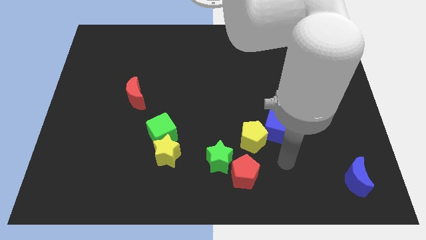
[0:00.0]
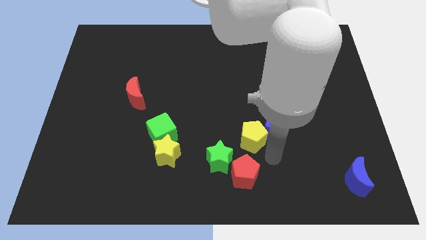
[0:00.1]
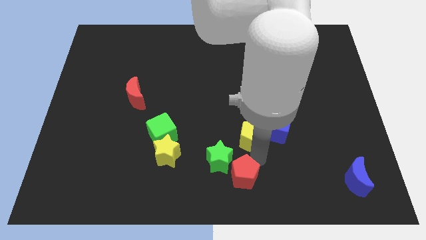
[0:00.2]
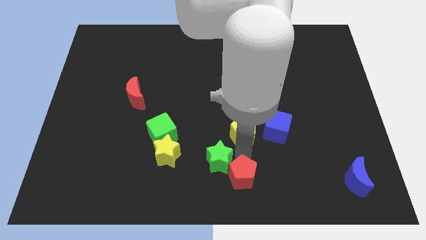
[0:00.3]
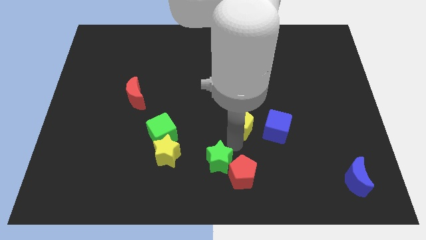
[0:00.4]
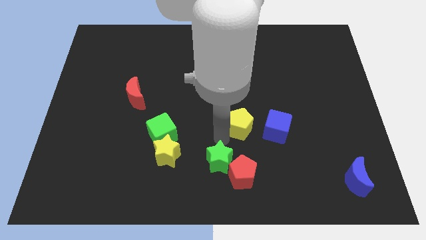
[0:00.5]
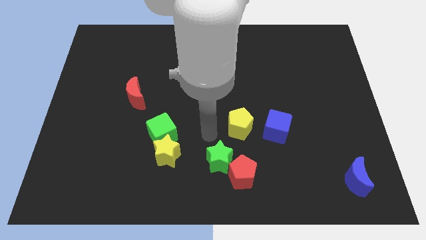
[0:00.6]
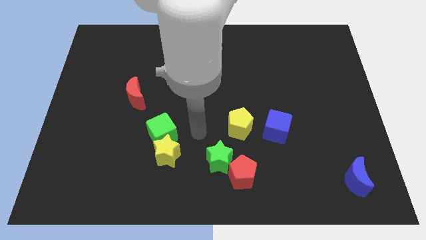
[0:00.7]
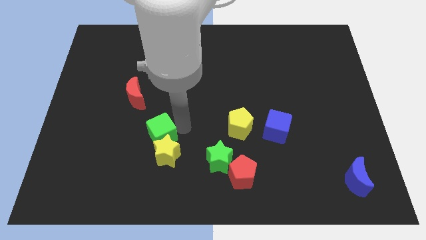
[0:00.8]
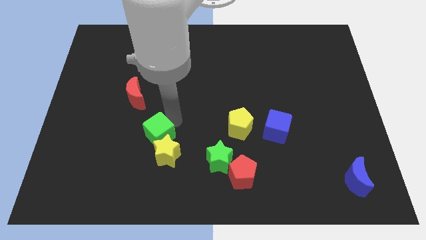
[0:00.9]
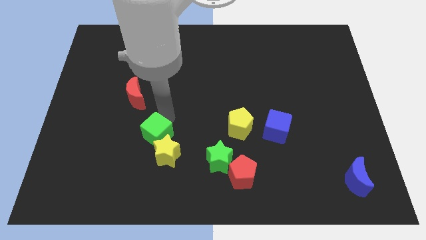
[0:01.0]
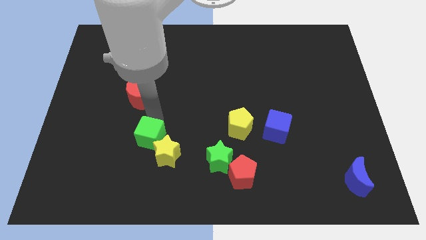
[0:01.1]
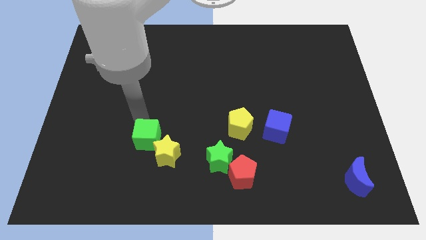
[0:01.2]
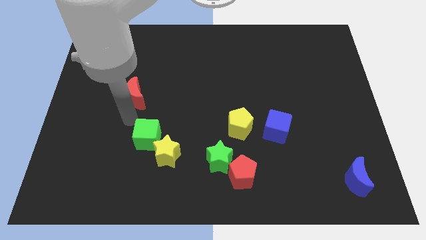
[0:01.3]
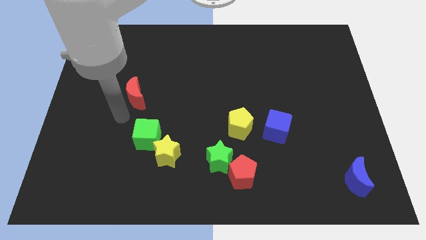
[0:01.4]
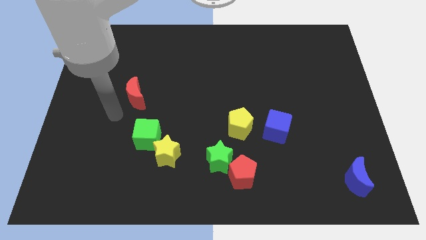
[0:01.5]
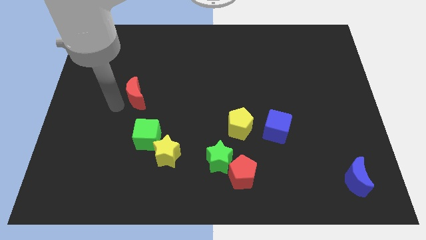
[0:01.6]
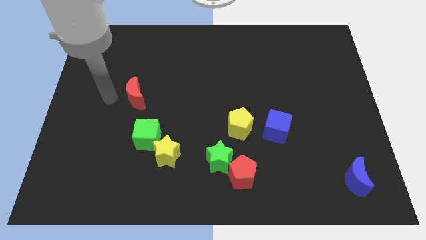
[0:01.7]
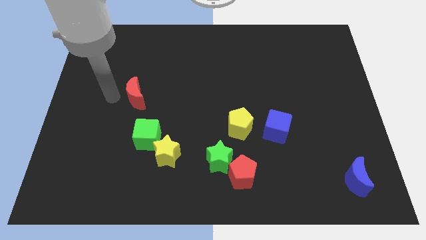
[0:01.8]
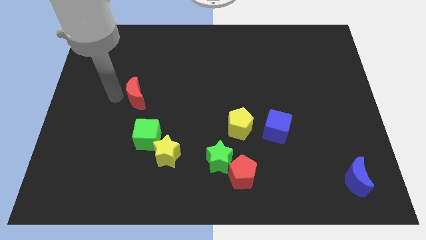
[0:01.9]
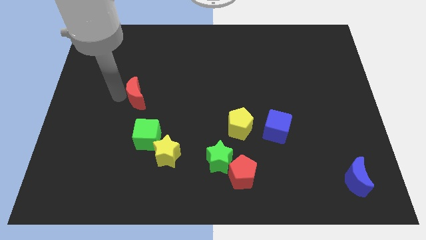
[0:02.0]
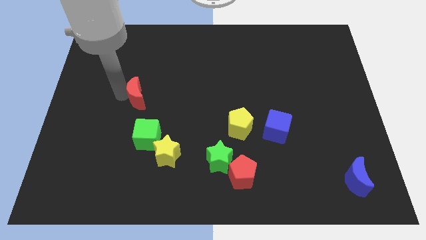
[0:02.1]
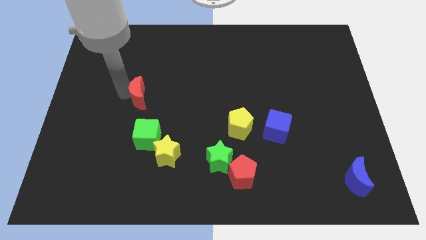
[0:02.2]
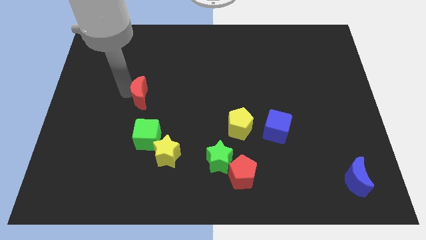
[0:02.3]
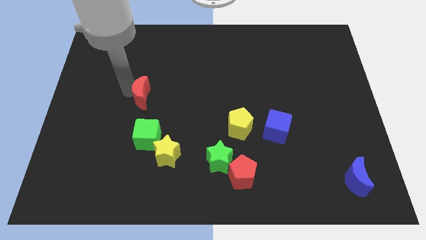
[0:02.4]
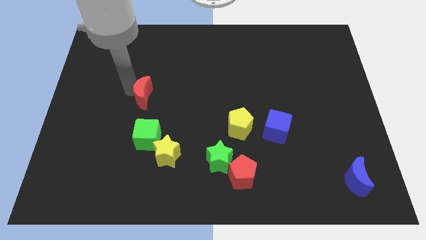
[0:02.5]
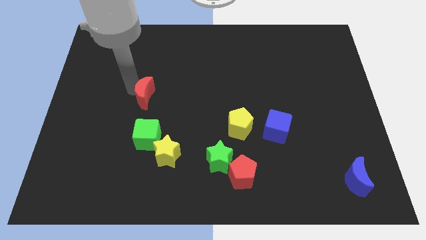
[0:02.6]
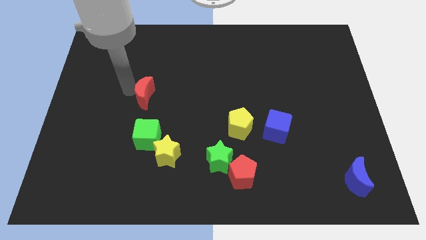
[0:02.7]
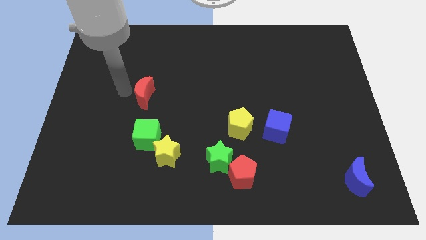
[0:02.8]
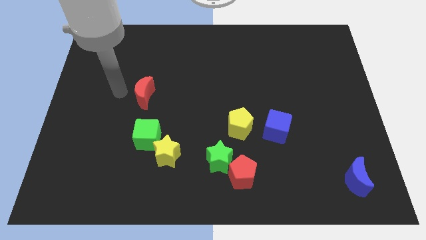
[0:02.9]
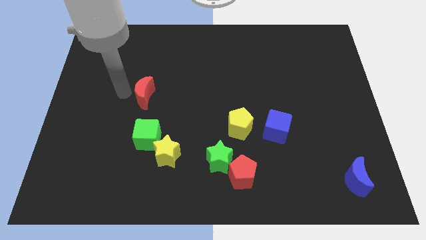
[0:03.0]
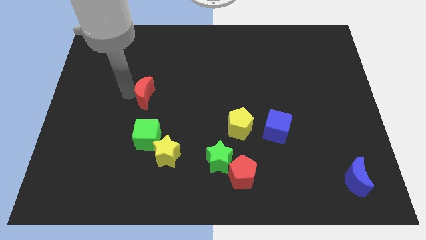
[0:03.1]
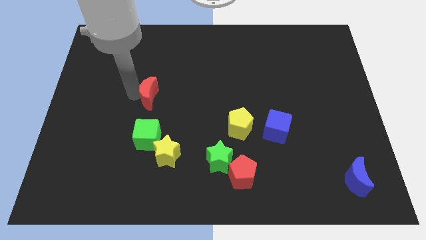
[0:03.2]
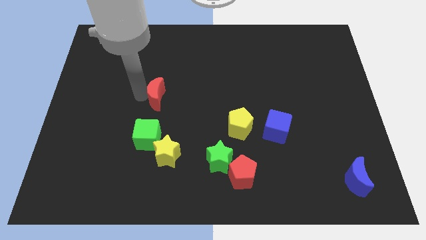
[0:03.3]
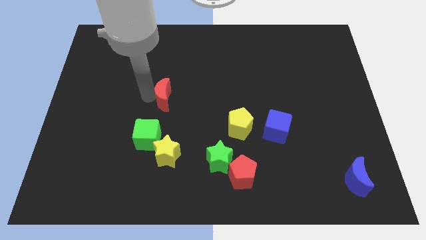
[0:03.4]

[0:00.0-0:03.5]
move the red moon right a little bit

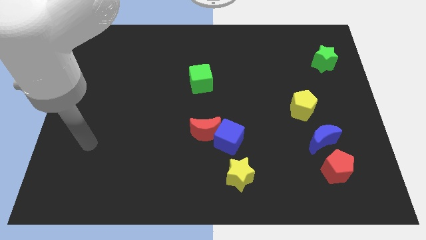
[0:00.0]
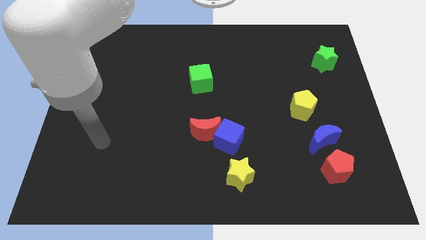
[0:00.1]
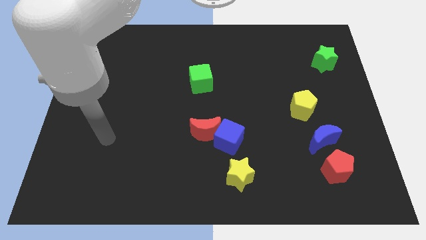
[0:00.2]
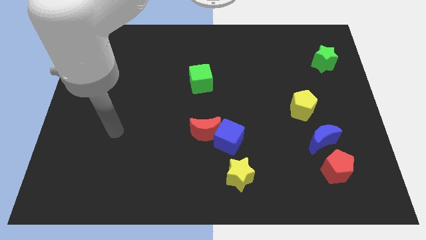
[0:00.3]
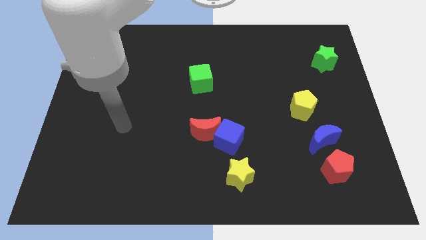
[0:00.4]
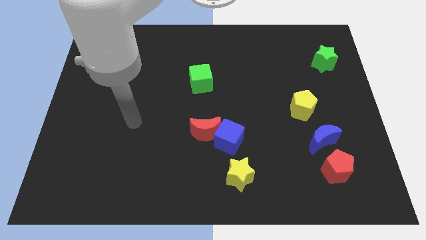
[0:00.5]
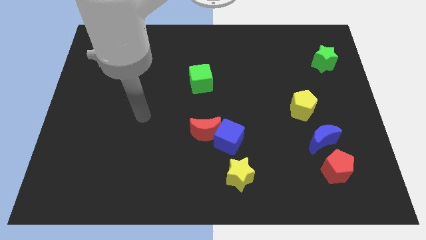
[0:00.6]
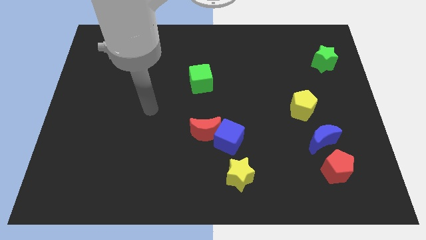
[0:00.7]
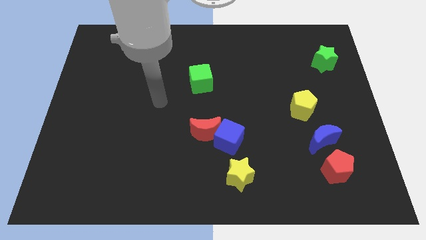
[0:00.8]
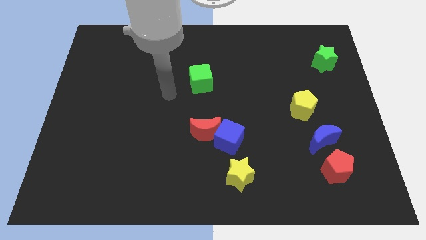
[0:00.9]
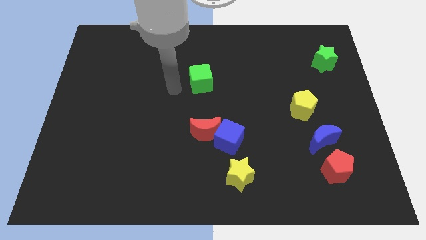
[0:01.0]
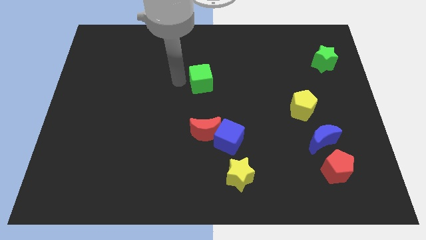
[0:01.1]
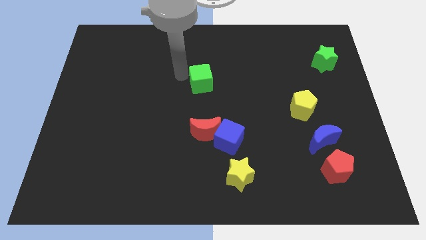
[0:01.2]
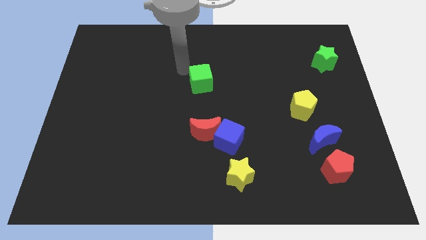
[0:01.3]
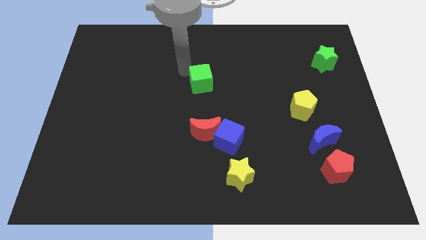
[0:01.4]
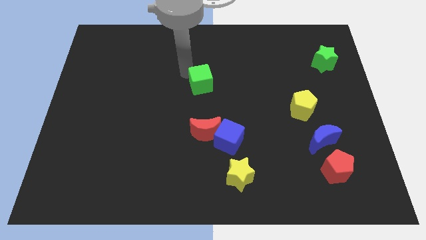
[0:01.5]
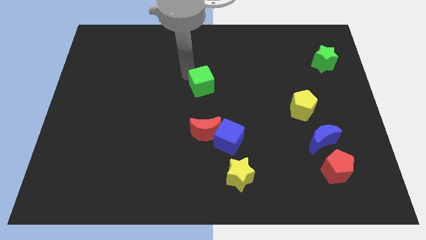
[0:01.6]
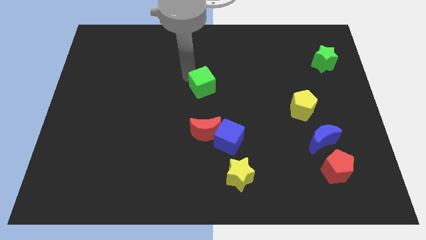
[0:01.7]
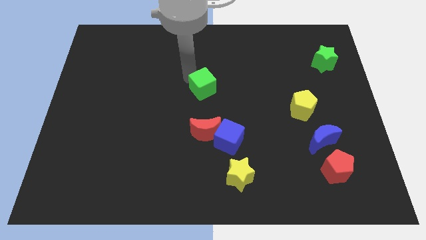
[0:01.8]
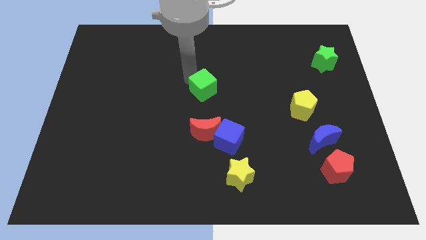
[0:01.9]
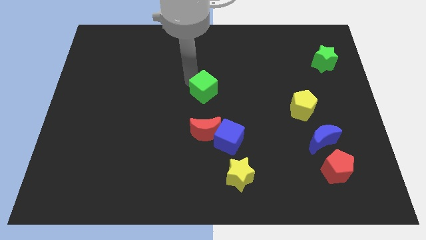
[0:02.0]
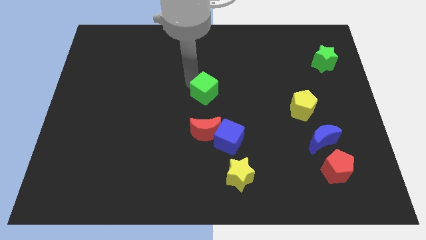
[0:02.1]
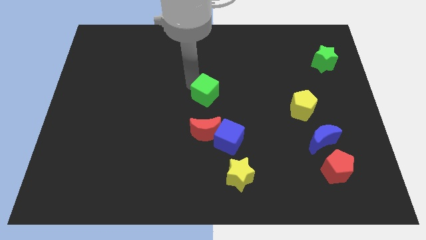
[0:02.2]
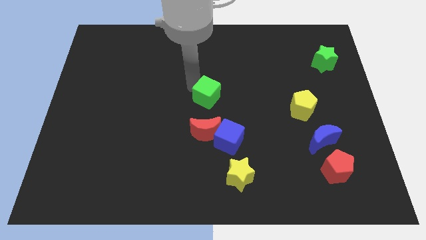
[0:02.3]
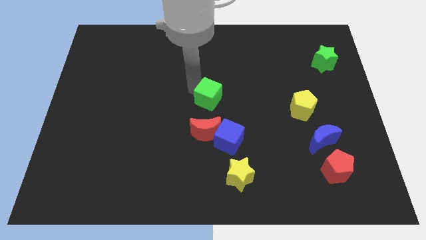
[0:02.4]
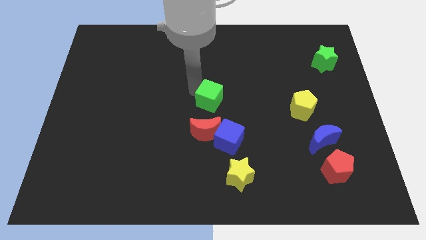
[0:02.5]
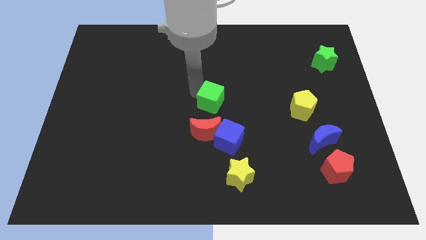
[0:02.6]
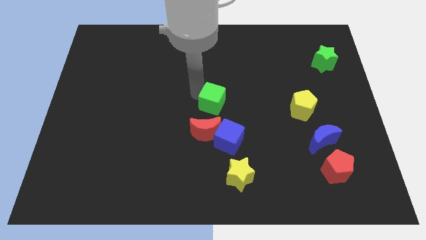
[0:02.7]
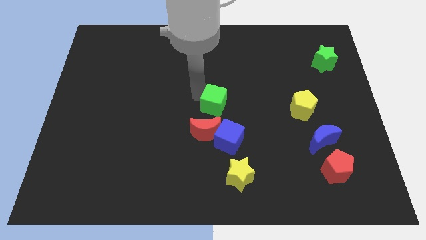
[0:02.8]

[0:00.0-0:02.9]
slide the green cube down and then to the right a little

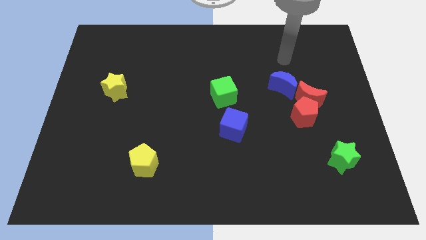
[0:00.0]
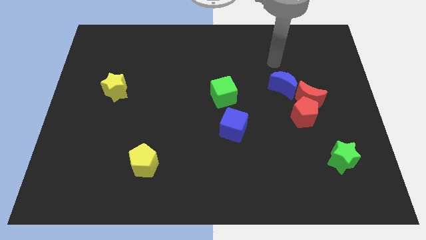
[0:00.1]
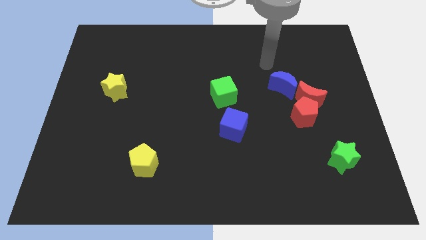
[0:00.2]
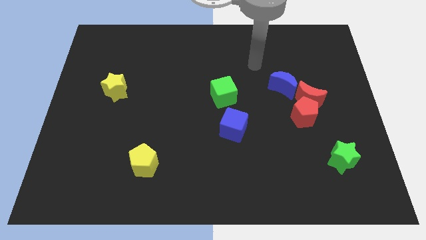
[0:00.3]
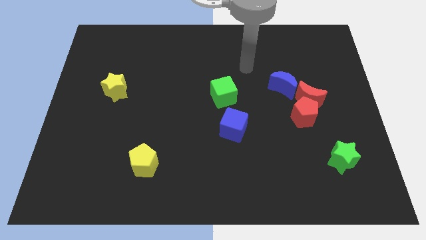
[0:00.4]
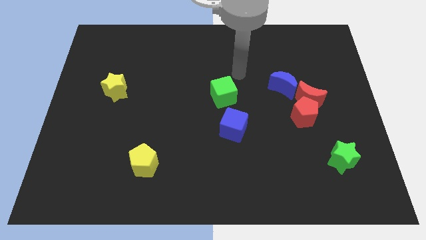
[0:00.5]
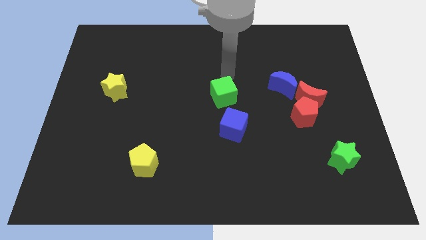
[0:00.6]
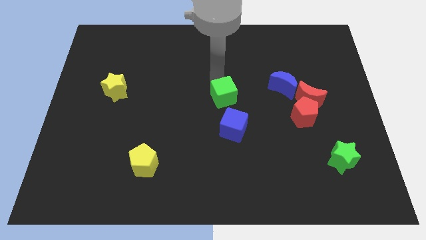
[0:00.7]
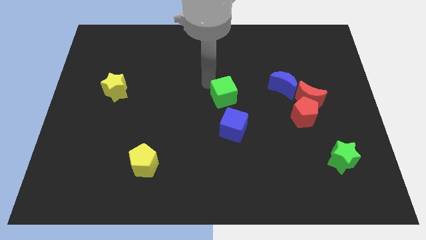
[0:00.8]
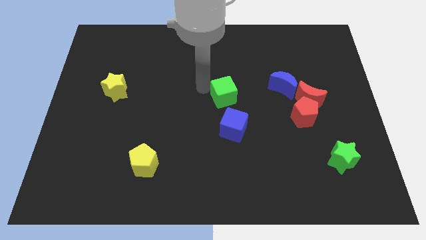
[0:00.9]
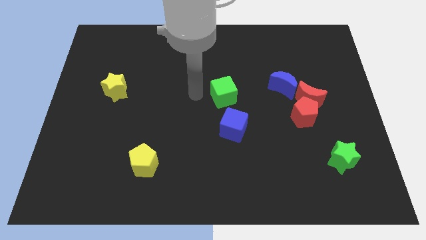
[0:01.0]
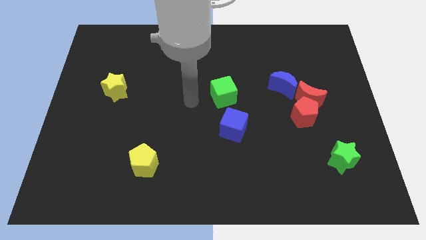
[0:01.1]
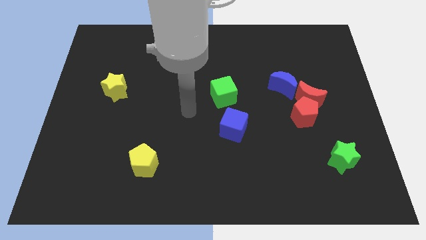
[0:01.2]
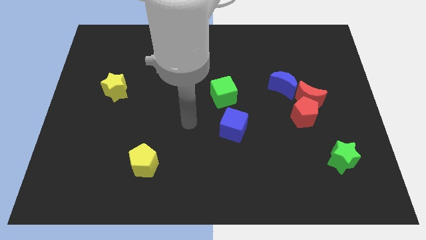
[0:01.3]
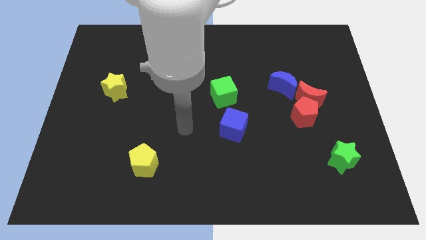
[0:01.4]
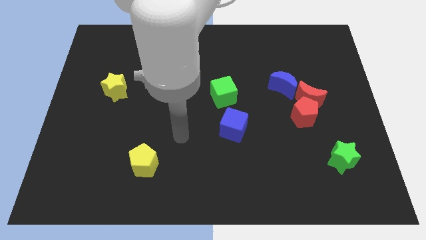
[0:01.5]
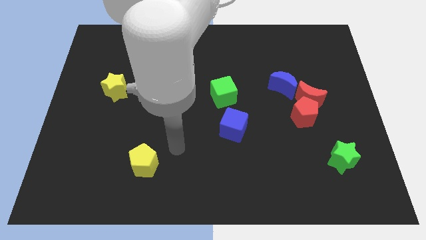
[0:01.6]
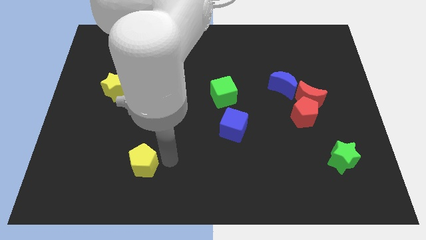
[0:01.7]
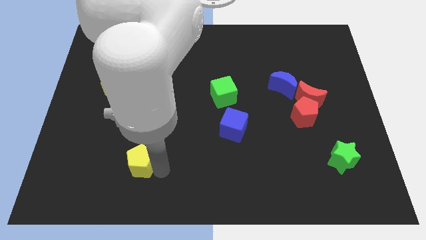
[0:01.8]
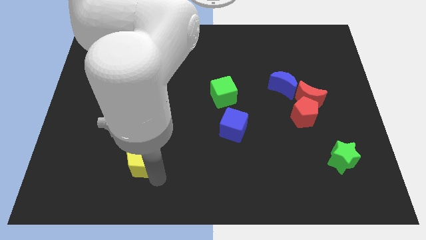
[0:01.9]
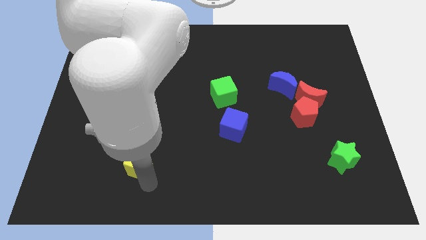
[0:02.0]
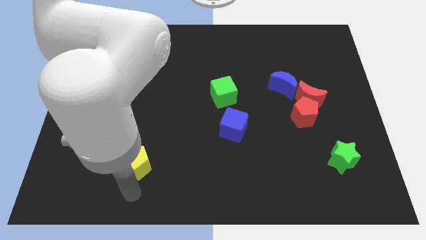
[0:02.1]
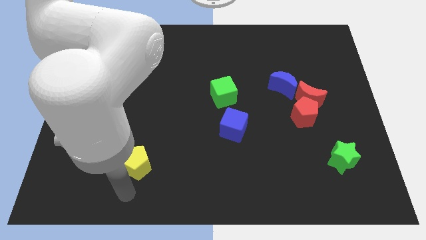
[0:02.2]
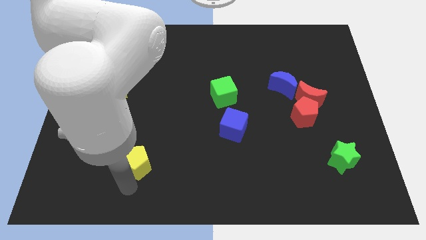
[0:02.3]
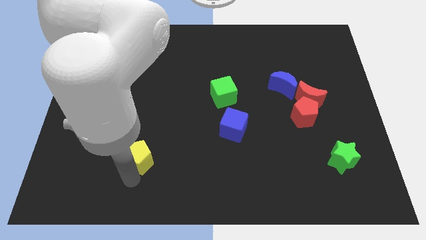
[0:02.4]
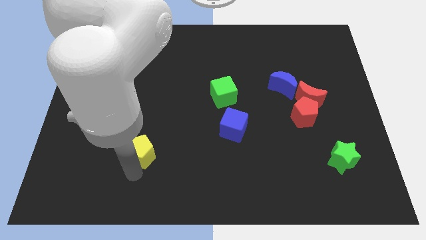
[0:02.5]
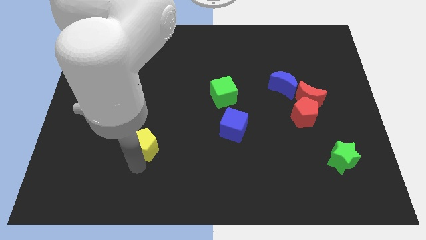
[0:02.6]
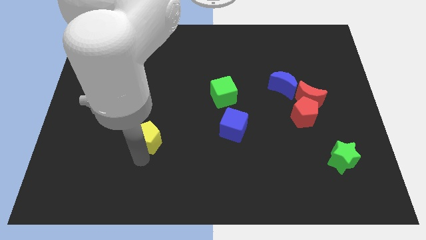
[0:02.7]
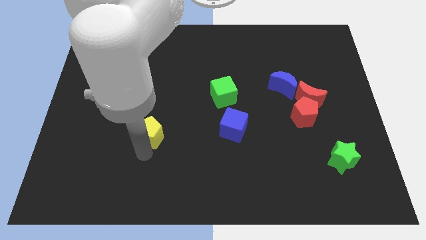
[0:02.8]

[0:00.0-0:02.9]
slide the yellow pentagon a little up
